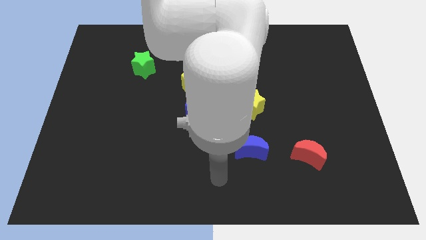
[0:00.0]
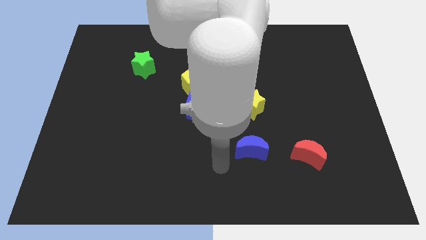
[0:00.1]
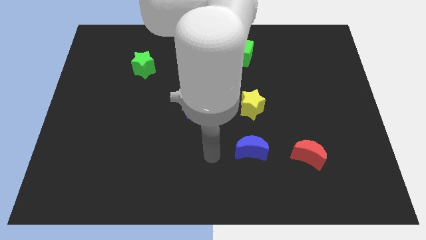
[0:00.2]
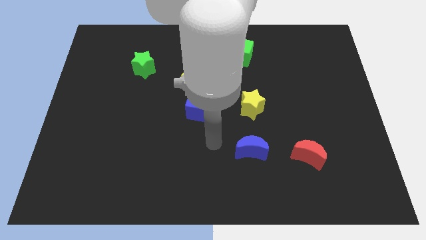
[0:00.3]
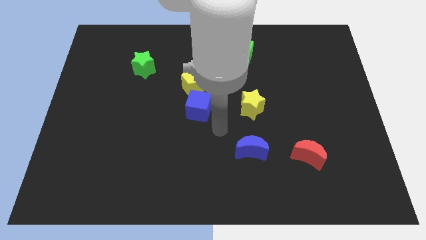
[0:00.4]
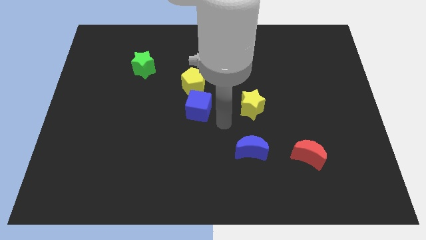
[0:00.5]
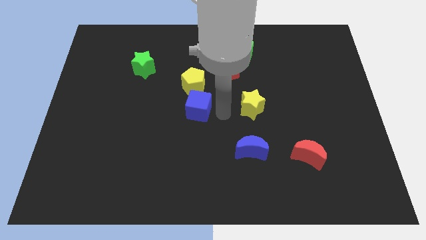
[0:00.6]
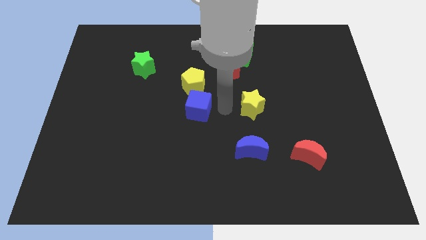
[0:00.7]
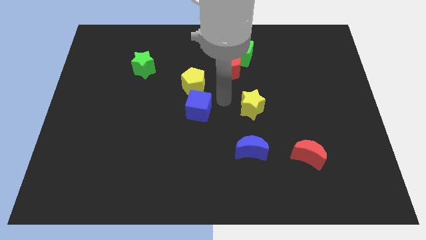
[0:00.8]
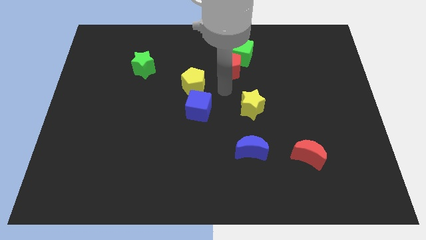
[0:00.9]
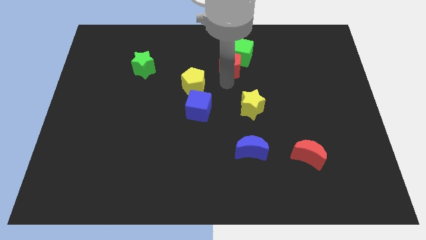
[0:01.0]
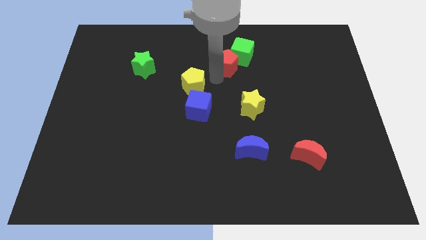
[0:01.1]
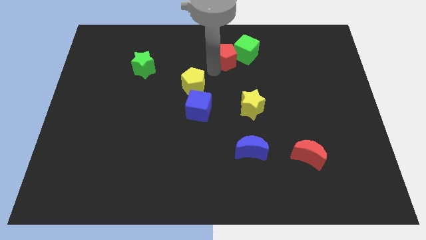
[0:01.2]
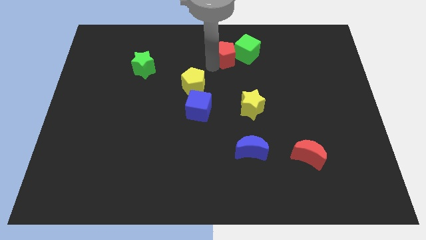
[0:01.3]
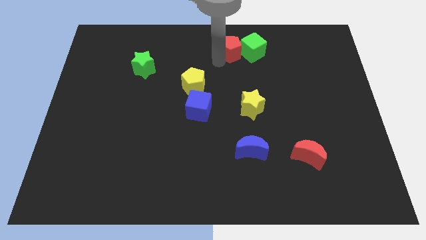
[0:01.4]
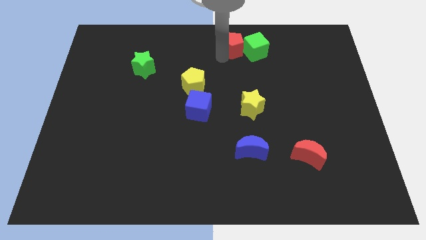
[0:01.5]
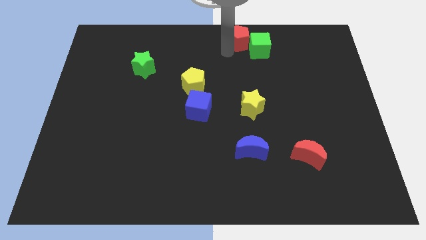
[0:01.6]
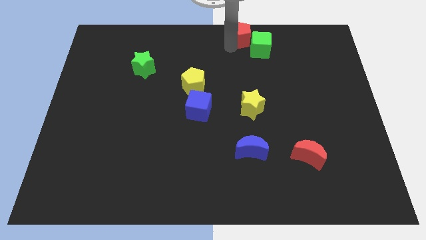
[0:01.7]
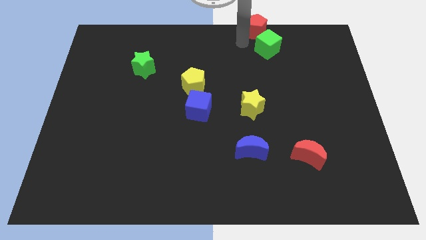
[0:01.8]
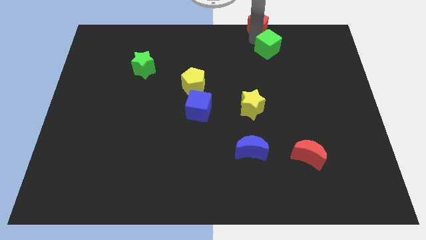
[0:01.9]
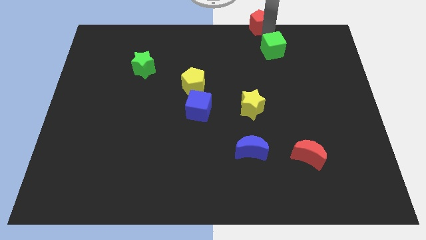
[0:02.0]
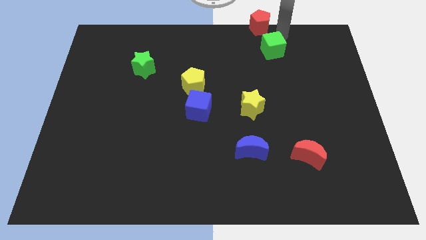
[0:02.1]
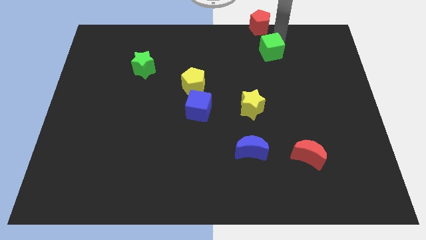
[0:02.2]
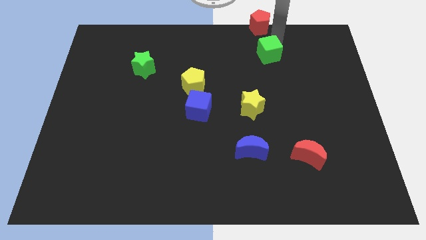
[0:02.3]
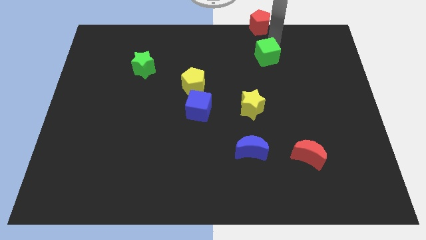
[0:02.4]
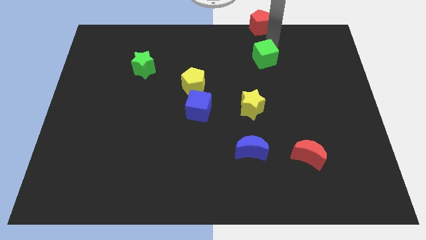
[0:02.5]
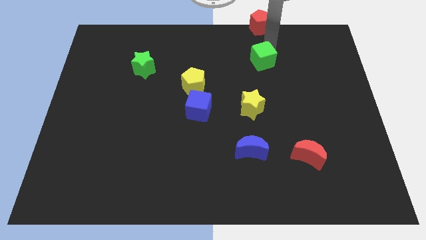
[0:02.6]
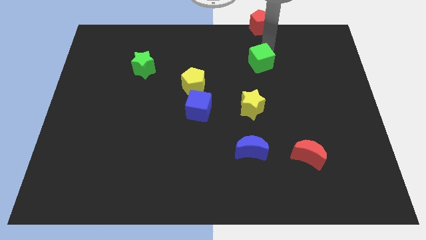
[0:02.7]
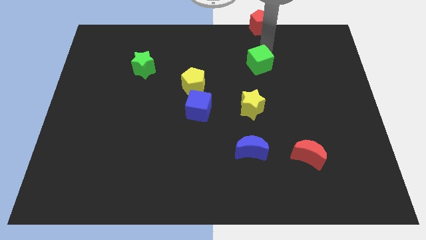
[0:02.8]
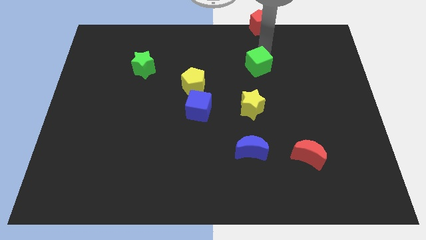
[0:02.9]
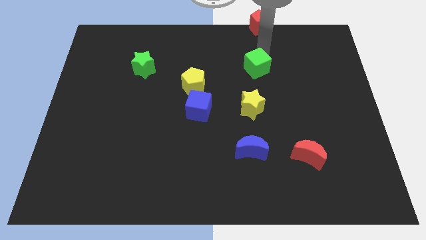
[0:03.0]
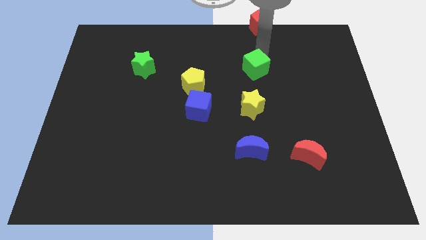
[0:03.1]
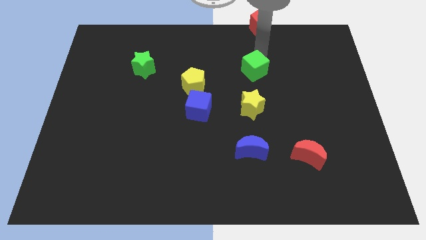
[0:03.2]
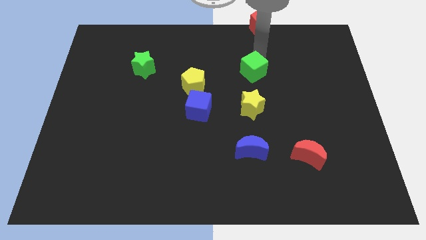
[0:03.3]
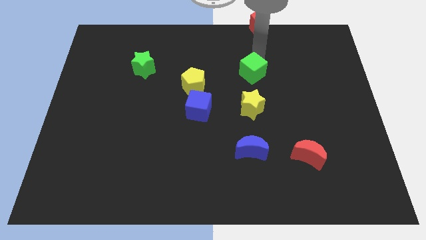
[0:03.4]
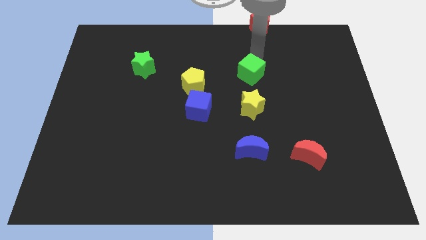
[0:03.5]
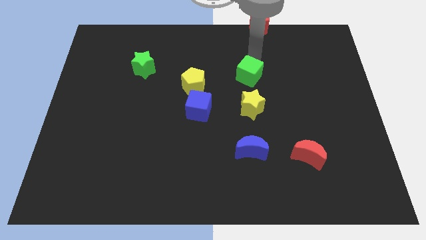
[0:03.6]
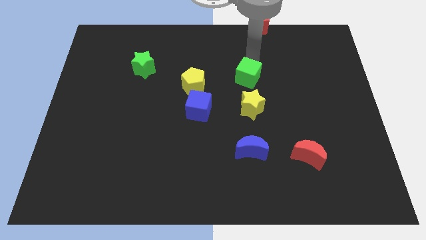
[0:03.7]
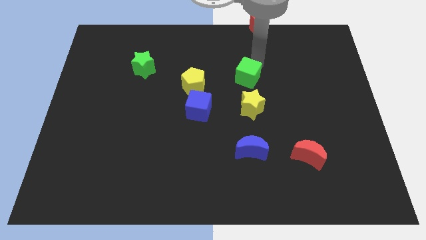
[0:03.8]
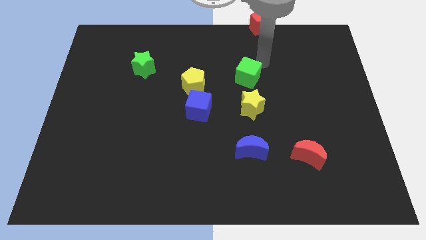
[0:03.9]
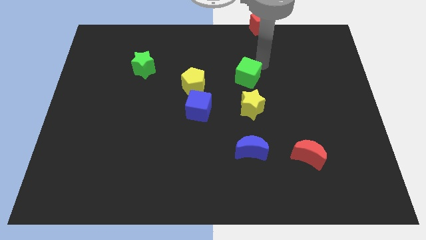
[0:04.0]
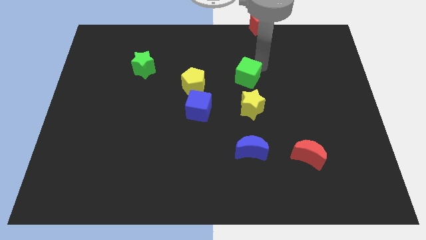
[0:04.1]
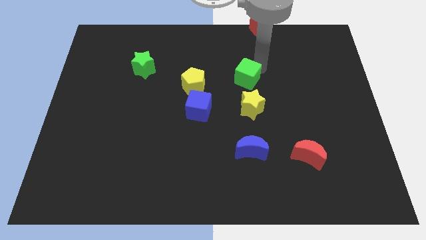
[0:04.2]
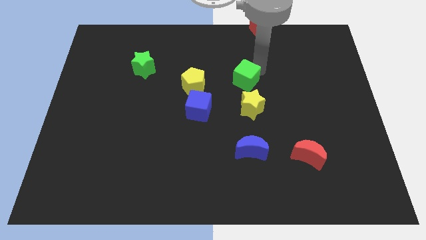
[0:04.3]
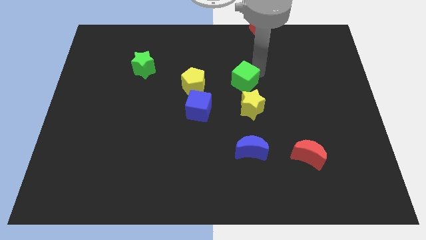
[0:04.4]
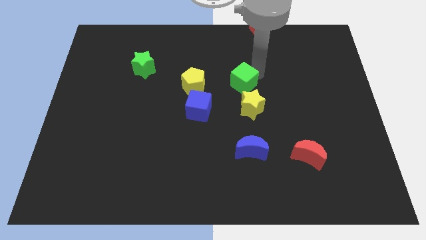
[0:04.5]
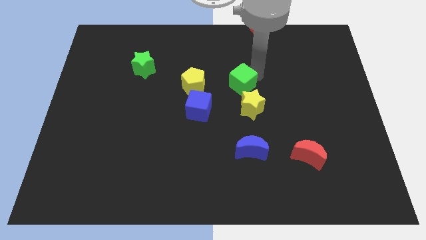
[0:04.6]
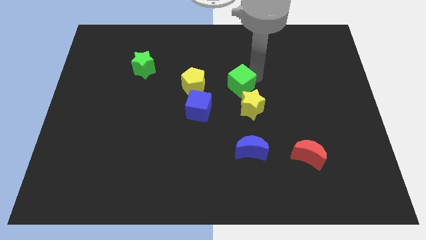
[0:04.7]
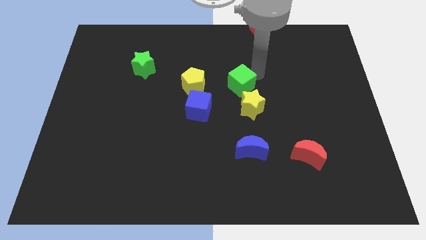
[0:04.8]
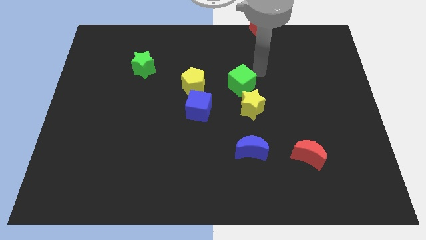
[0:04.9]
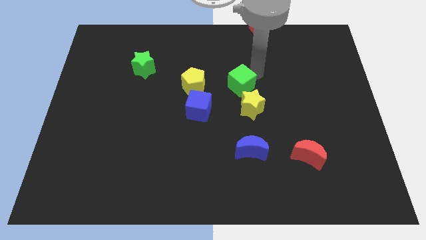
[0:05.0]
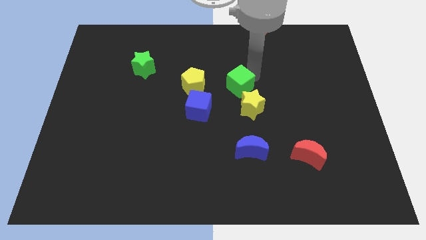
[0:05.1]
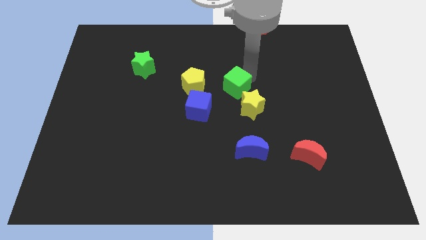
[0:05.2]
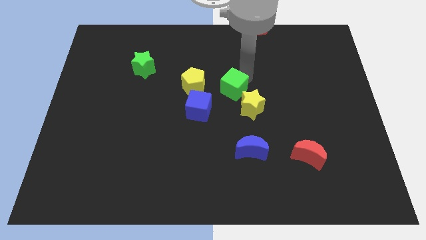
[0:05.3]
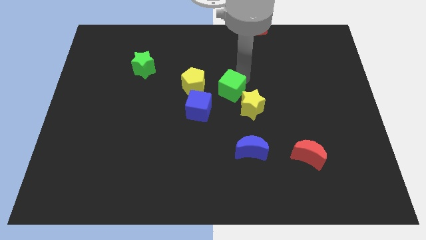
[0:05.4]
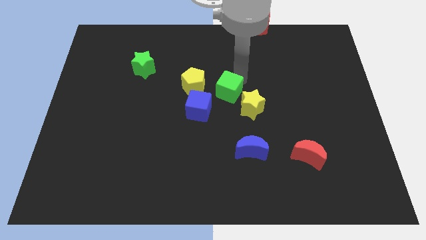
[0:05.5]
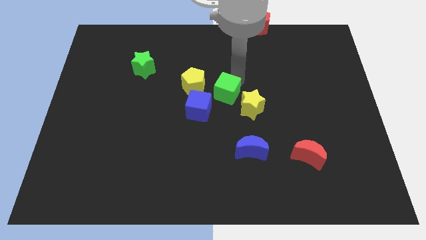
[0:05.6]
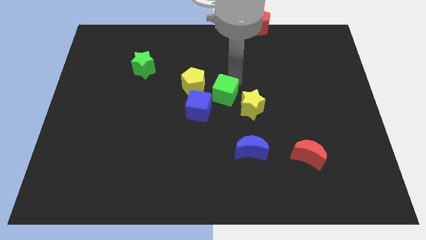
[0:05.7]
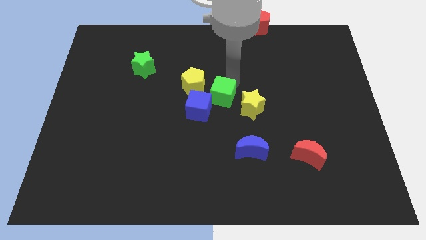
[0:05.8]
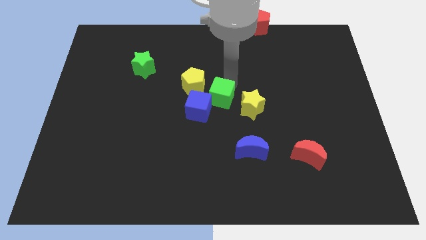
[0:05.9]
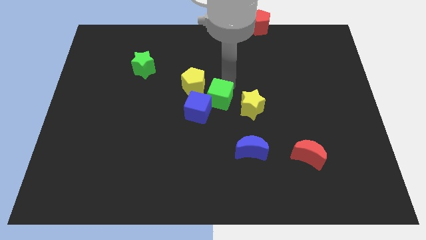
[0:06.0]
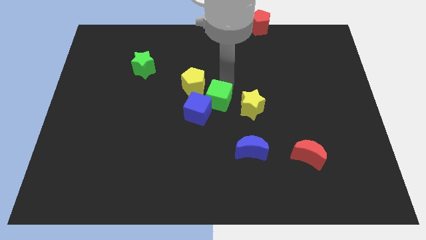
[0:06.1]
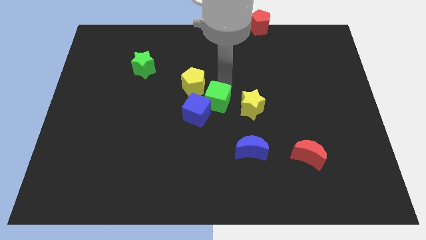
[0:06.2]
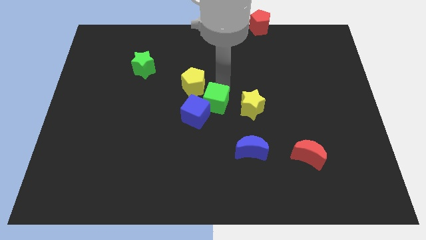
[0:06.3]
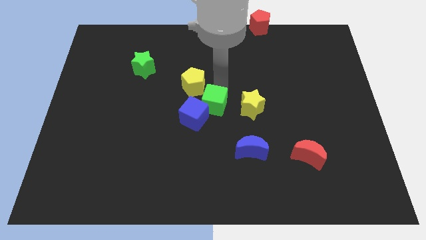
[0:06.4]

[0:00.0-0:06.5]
put the green cube below the yellow pentagon
